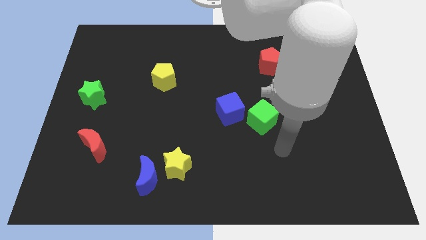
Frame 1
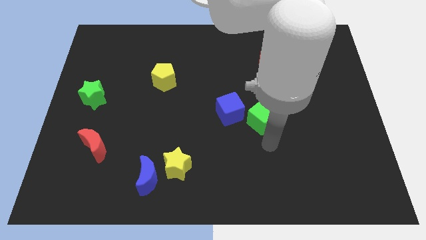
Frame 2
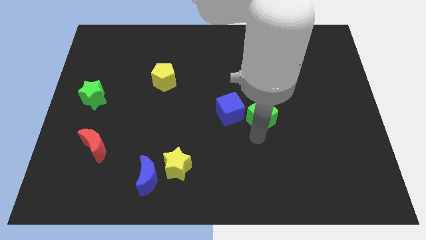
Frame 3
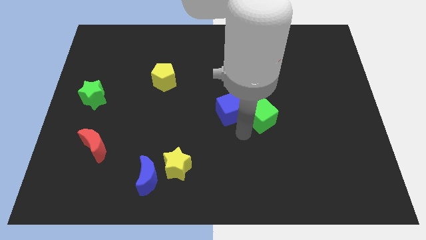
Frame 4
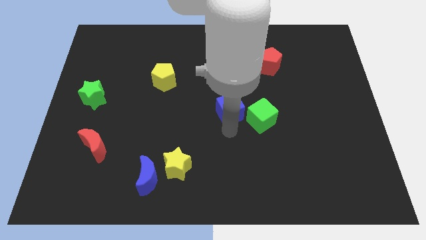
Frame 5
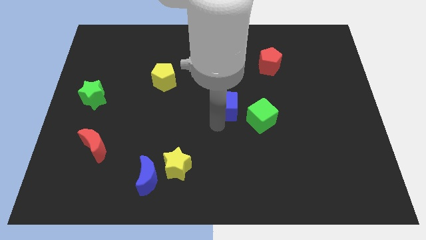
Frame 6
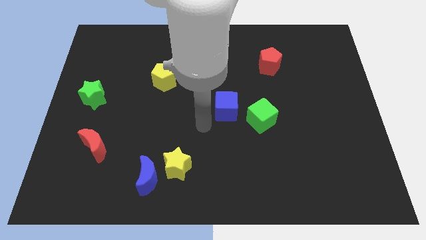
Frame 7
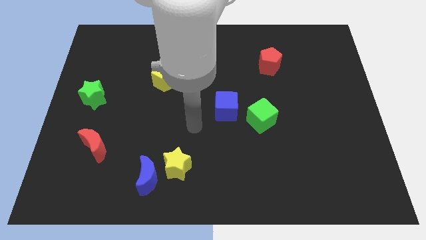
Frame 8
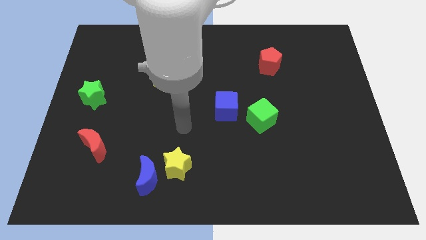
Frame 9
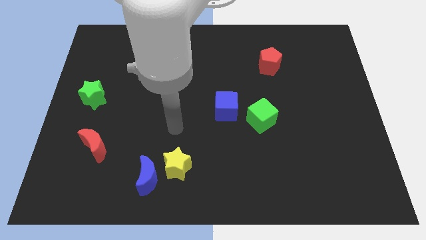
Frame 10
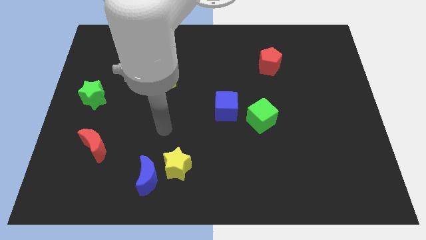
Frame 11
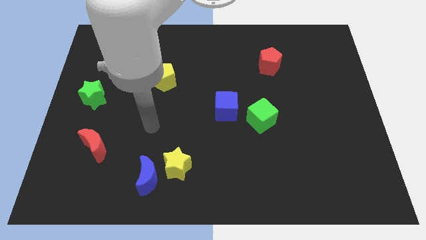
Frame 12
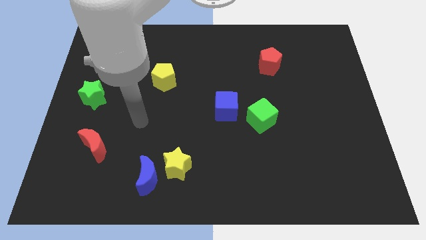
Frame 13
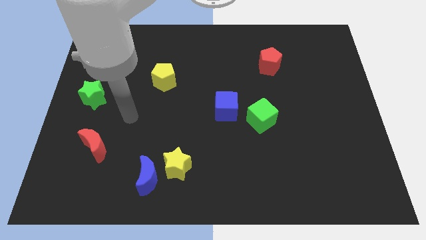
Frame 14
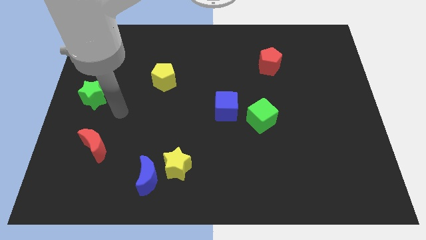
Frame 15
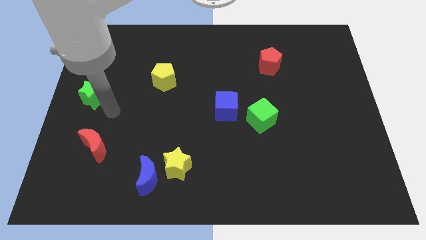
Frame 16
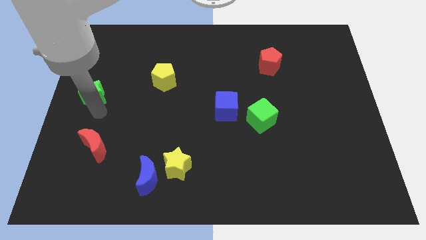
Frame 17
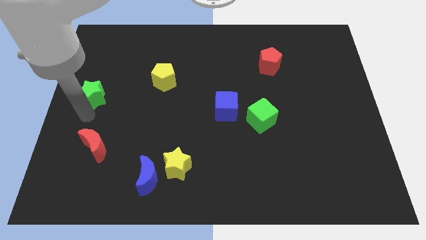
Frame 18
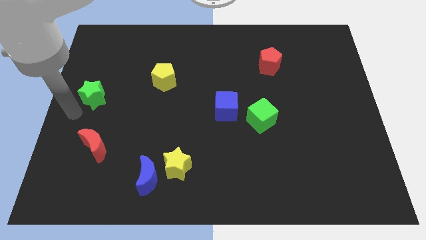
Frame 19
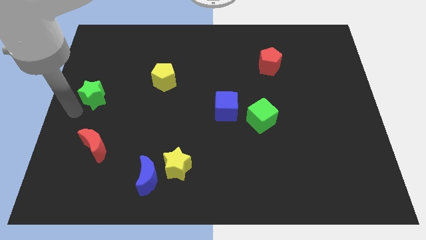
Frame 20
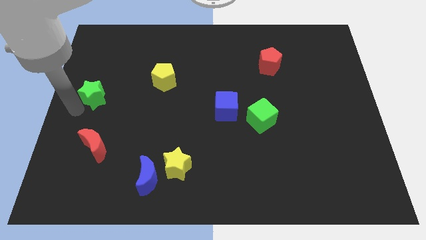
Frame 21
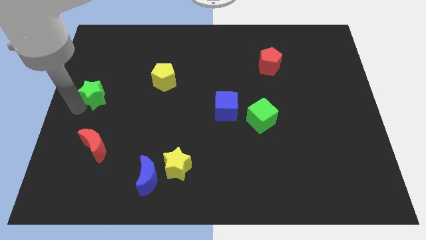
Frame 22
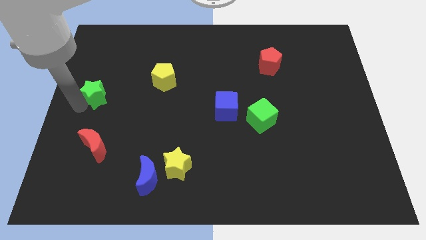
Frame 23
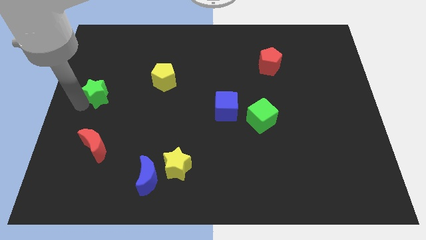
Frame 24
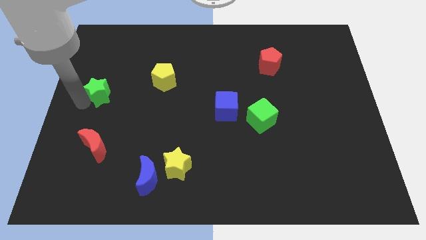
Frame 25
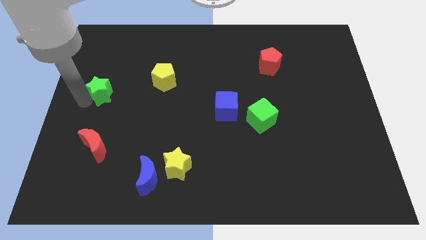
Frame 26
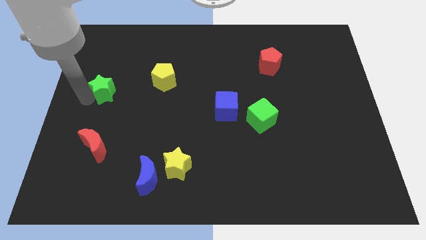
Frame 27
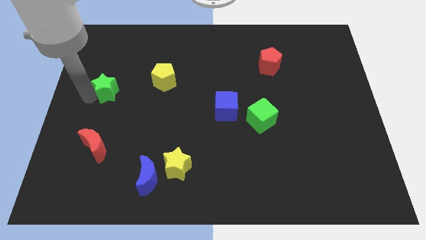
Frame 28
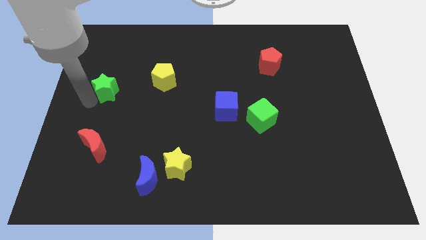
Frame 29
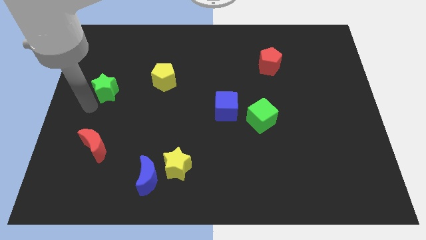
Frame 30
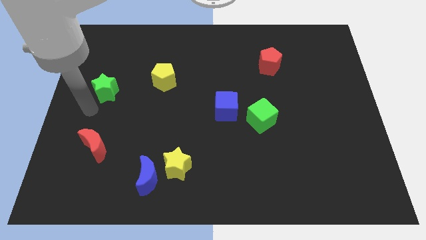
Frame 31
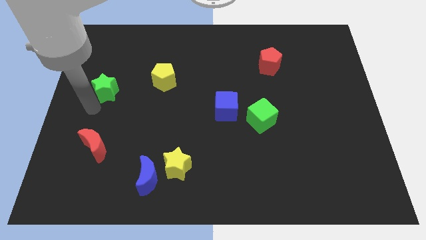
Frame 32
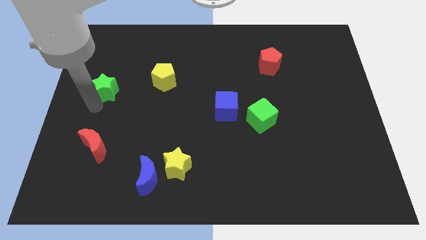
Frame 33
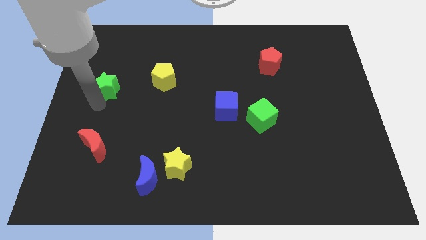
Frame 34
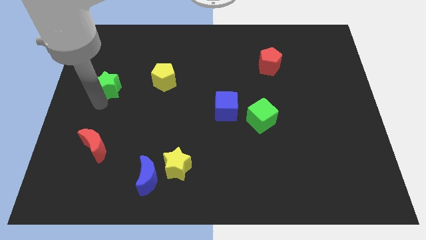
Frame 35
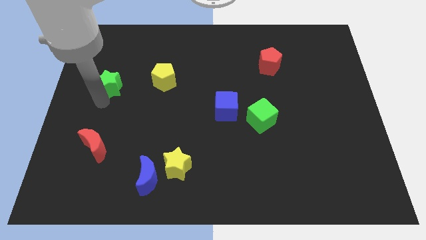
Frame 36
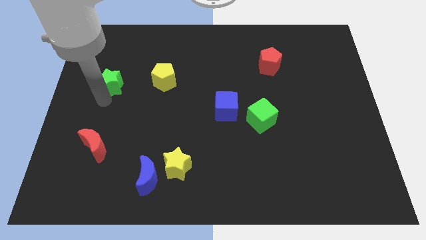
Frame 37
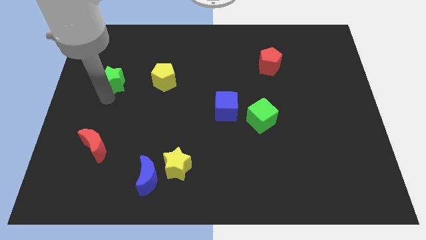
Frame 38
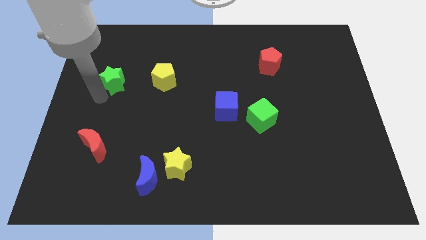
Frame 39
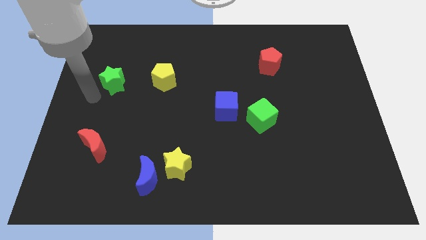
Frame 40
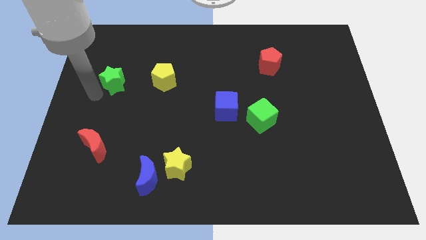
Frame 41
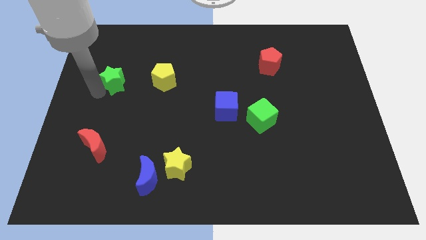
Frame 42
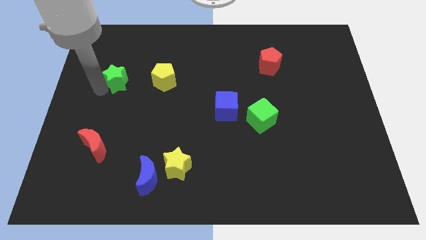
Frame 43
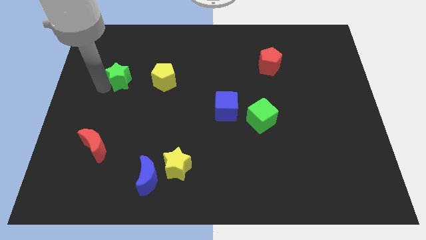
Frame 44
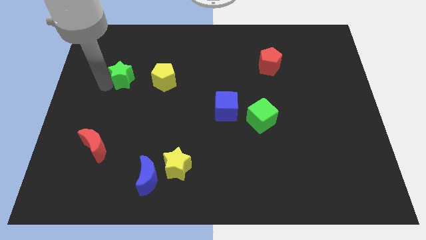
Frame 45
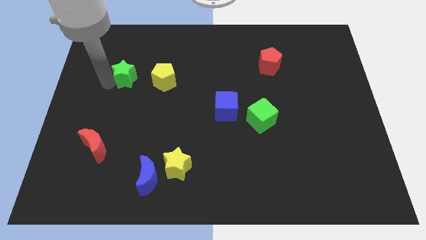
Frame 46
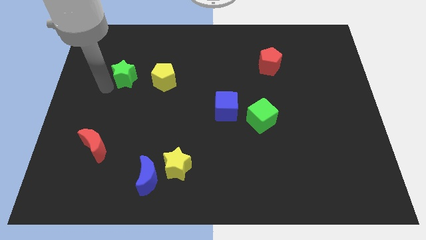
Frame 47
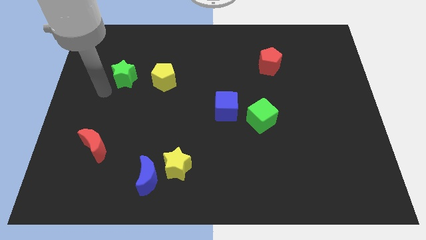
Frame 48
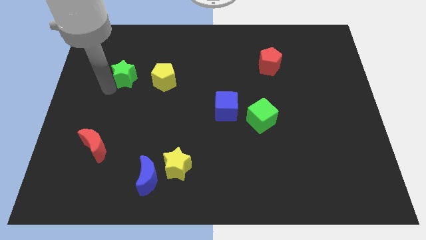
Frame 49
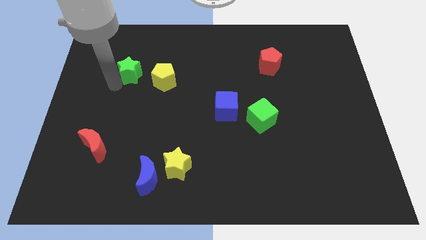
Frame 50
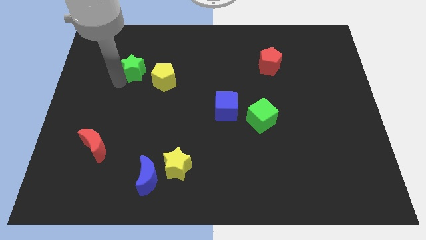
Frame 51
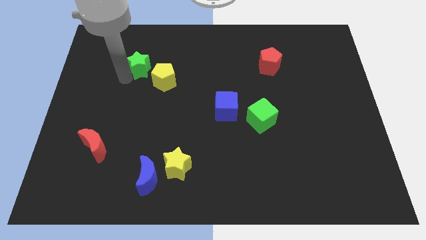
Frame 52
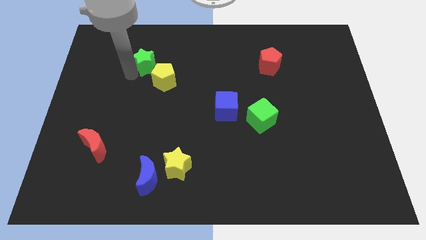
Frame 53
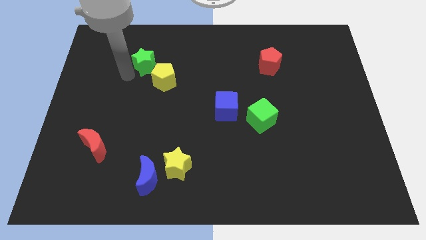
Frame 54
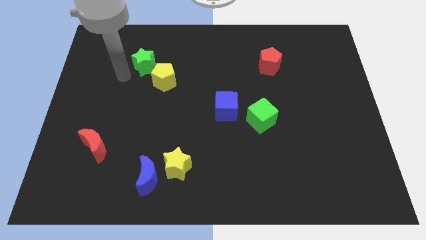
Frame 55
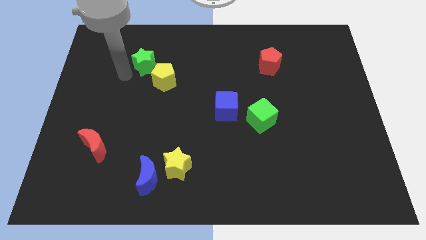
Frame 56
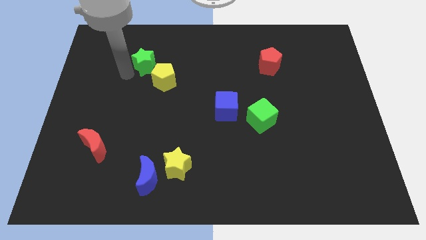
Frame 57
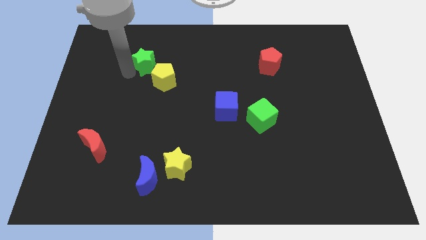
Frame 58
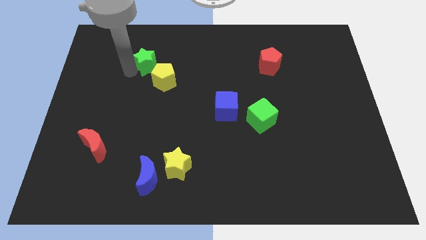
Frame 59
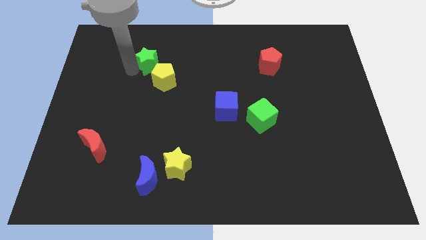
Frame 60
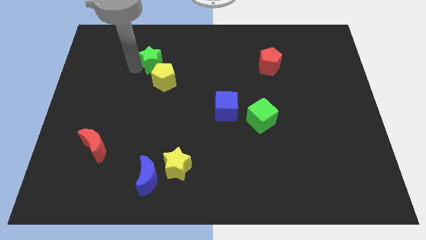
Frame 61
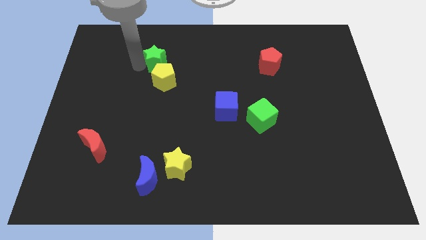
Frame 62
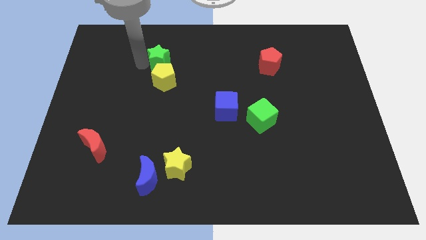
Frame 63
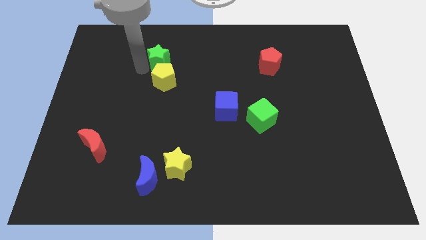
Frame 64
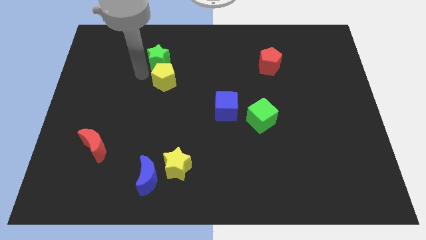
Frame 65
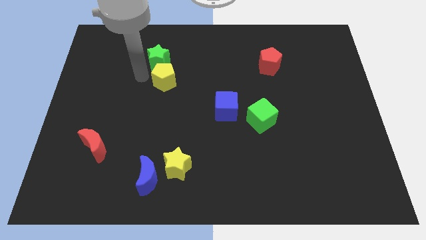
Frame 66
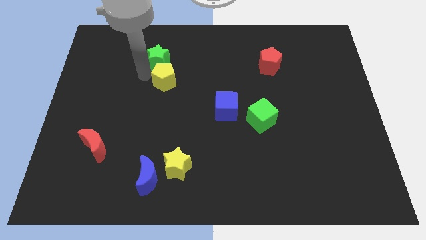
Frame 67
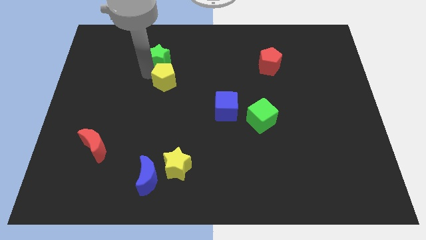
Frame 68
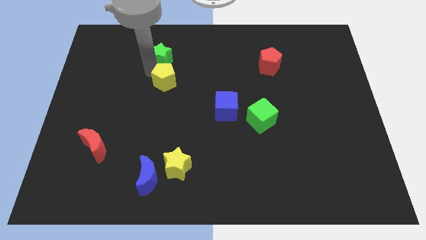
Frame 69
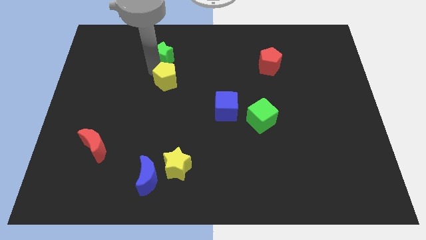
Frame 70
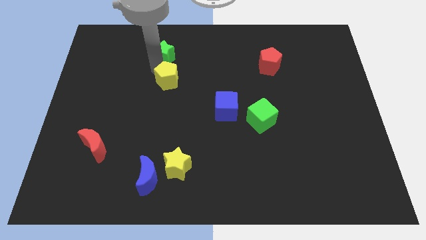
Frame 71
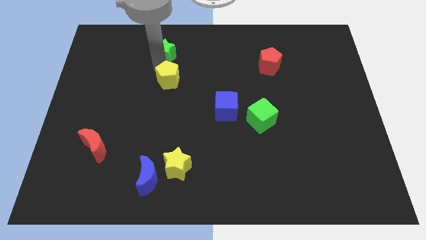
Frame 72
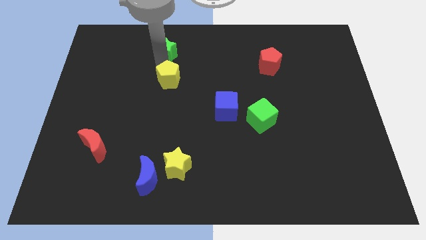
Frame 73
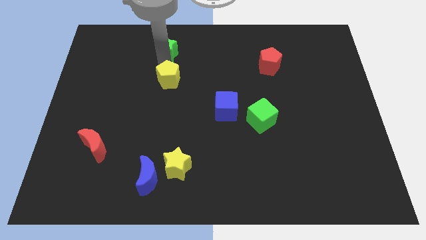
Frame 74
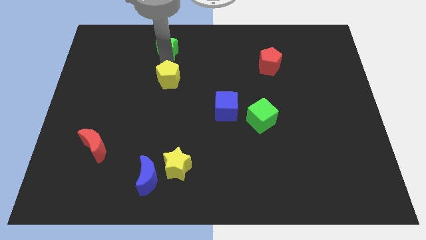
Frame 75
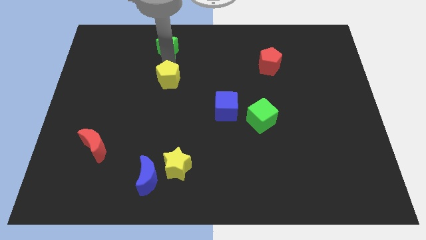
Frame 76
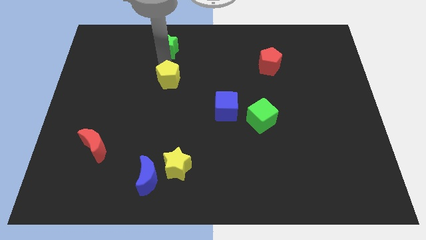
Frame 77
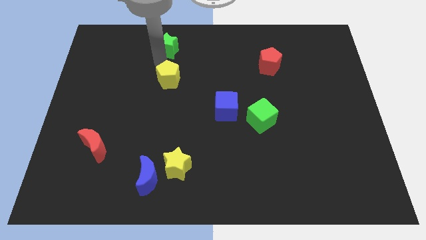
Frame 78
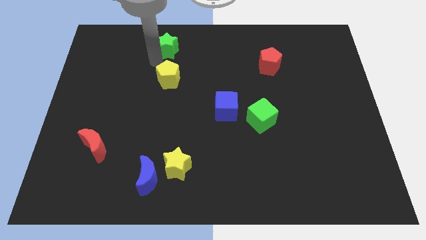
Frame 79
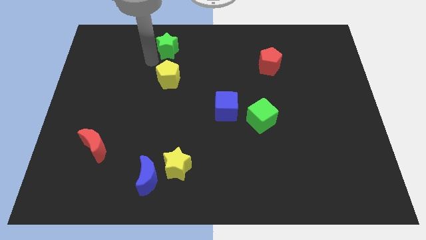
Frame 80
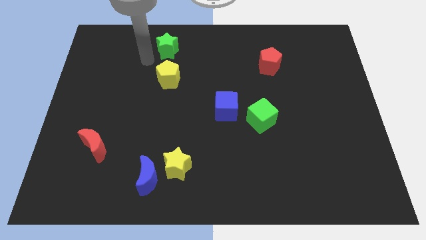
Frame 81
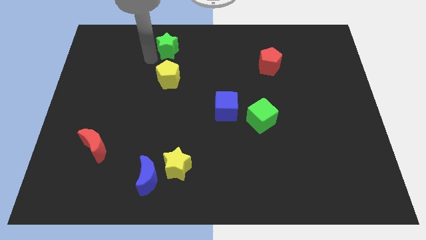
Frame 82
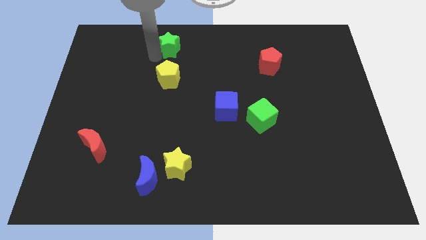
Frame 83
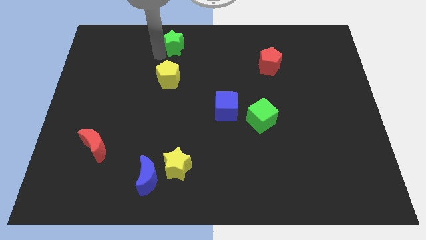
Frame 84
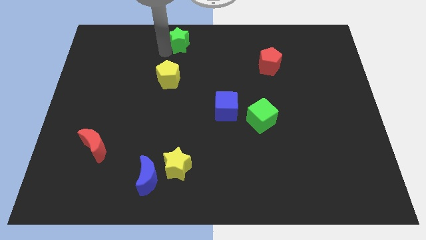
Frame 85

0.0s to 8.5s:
push the green star to the top side
